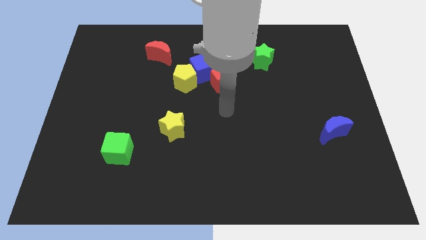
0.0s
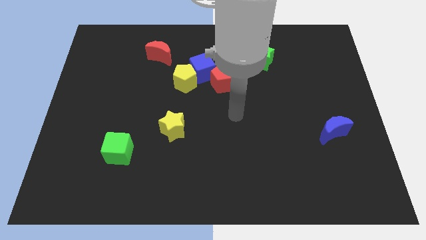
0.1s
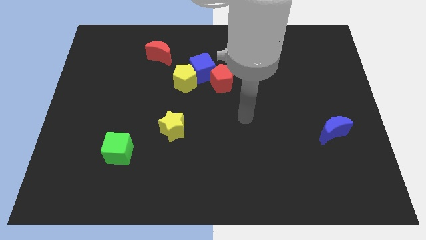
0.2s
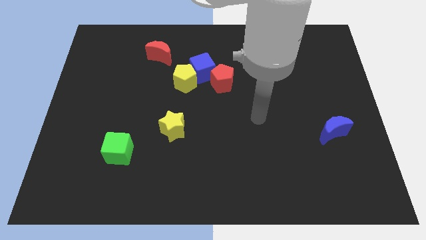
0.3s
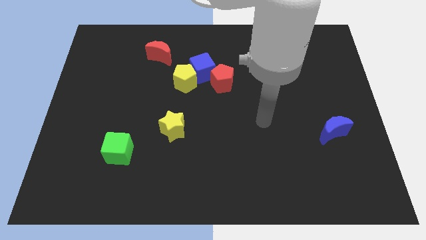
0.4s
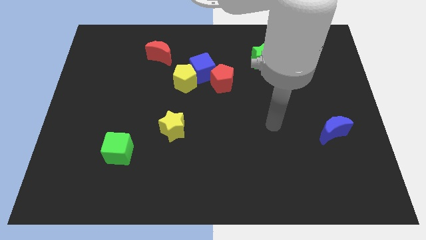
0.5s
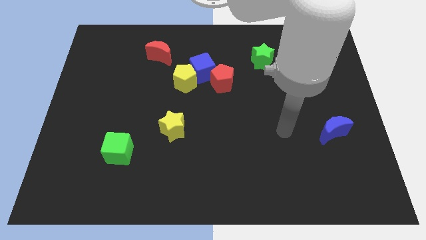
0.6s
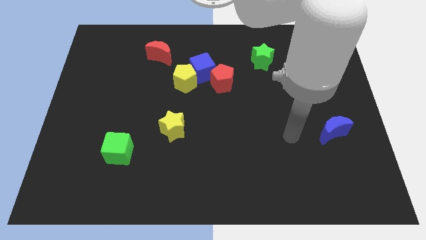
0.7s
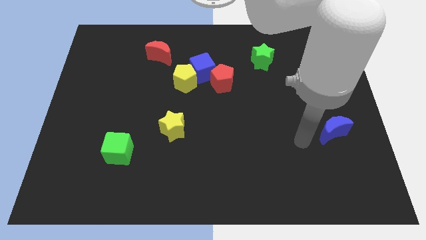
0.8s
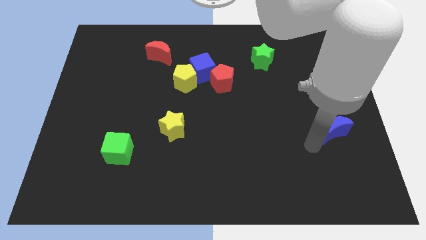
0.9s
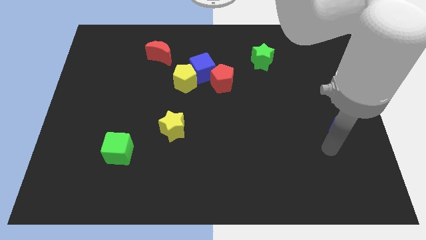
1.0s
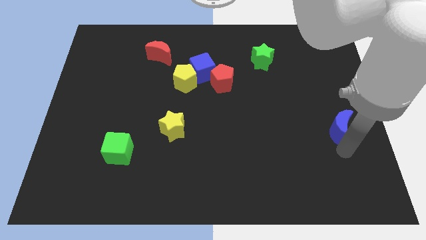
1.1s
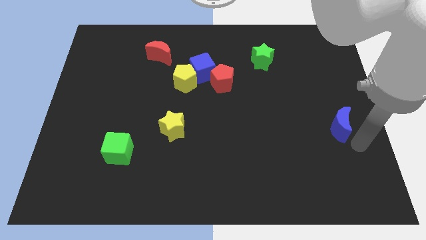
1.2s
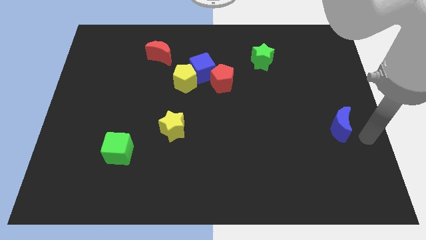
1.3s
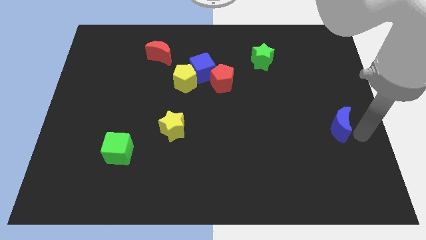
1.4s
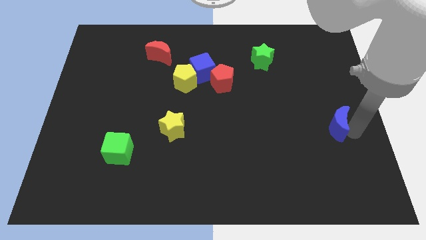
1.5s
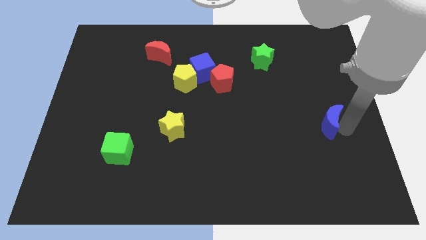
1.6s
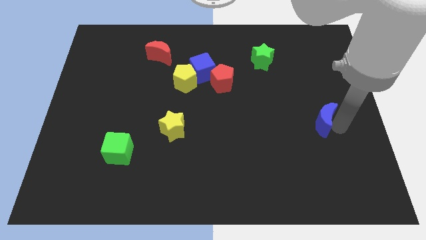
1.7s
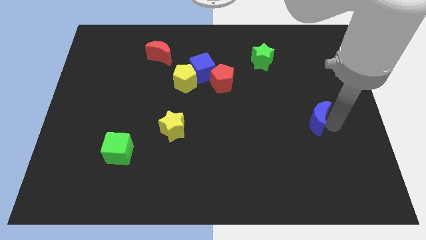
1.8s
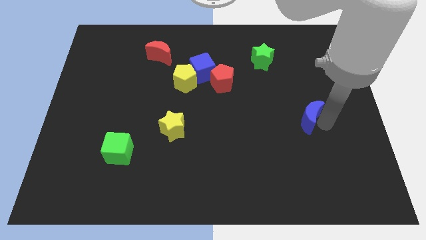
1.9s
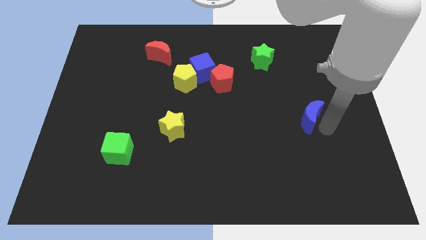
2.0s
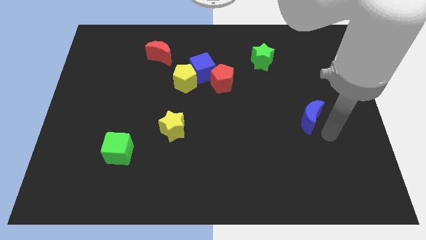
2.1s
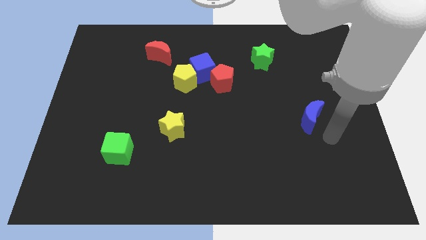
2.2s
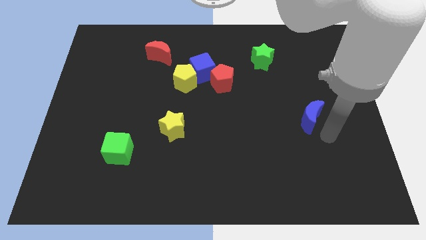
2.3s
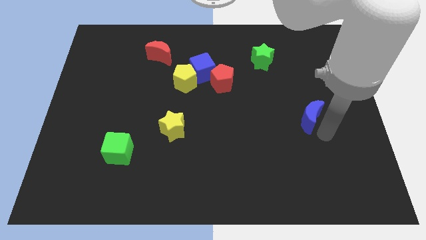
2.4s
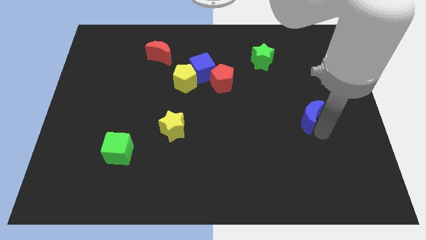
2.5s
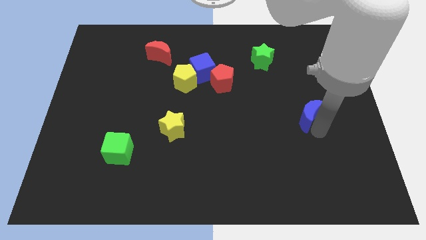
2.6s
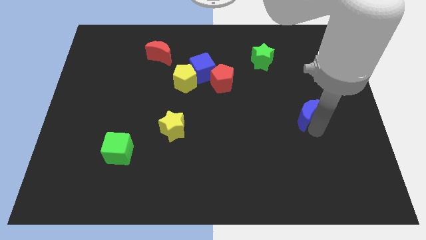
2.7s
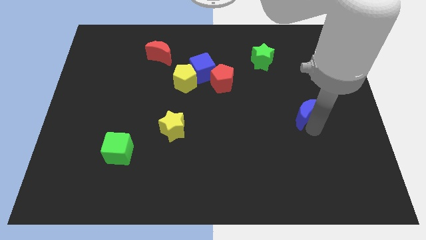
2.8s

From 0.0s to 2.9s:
slide the blue moon up and left a bit

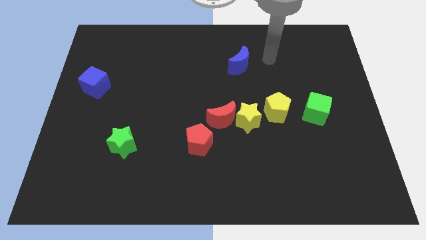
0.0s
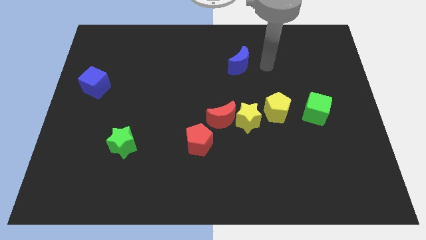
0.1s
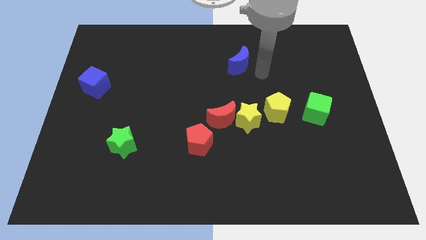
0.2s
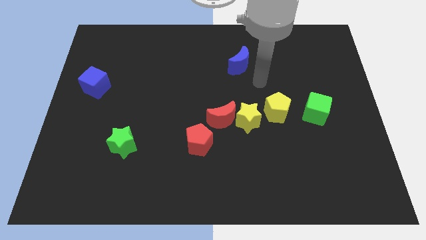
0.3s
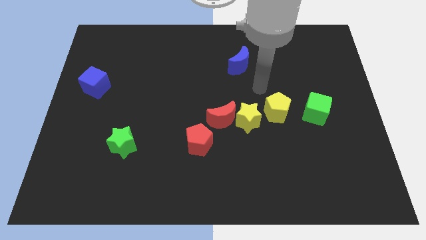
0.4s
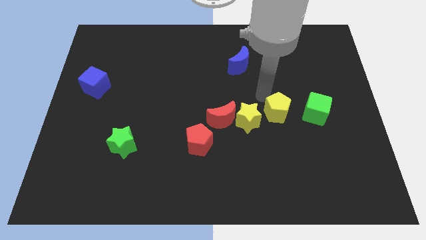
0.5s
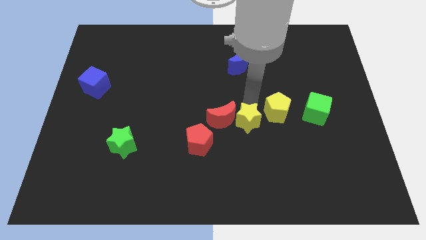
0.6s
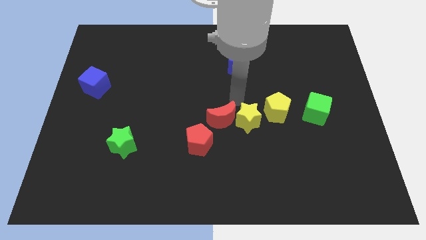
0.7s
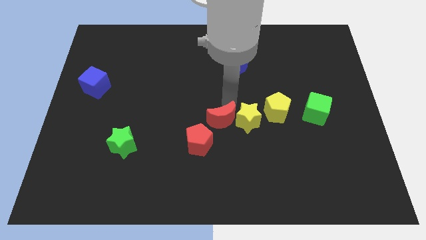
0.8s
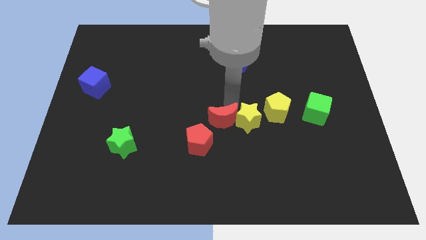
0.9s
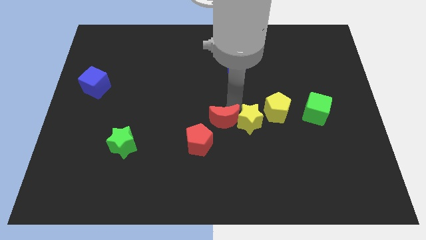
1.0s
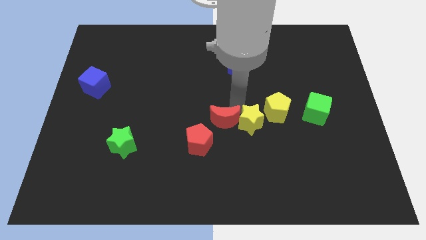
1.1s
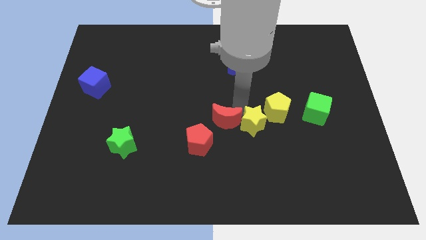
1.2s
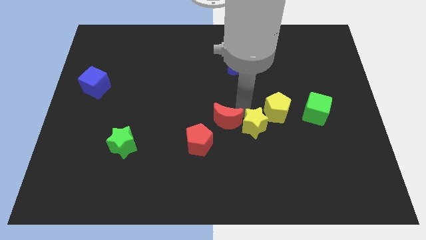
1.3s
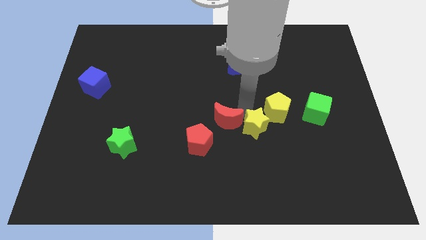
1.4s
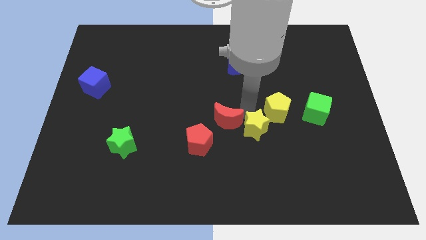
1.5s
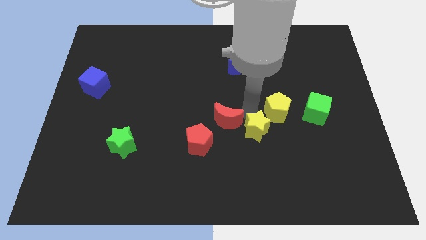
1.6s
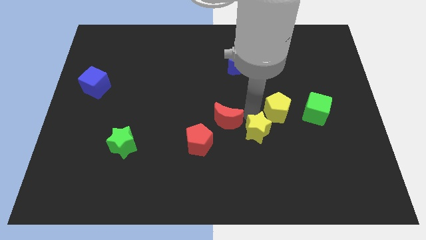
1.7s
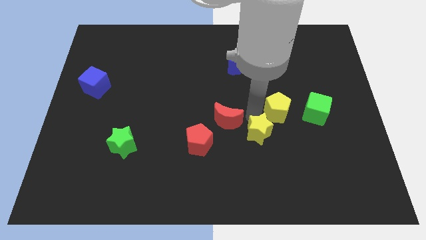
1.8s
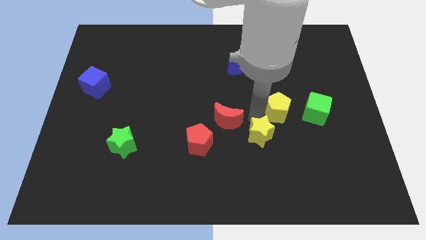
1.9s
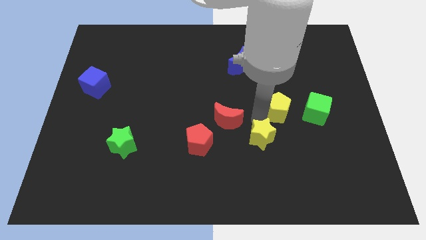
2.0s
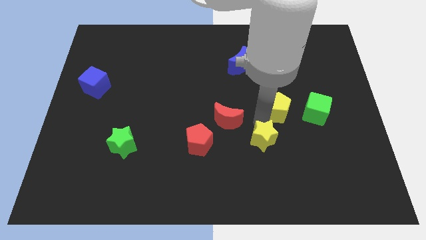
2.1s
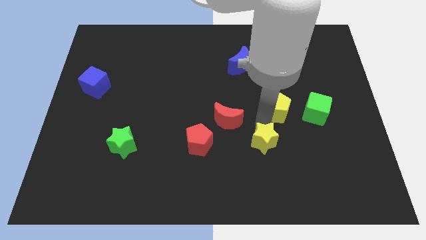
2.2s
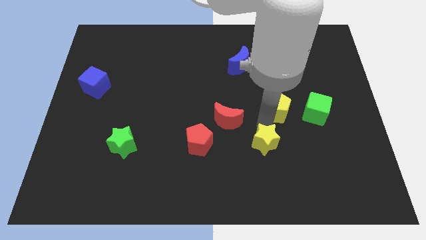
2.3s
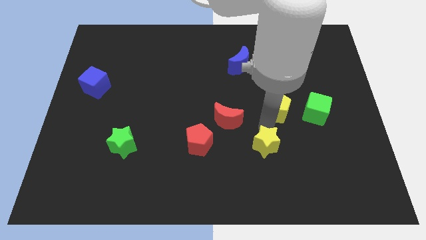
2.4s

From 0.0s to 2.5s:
slightly move the yellow star diagonally down and to the right

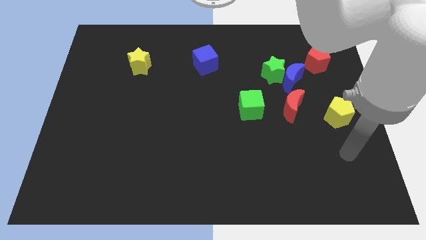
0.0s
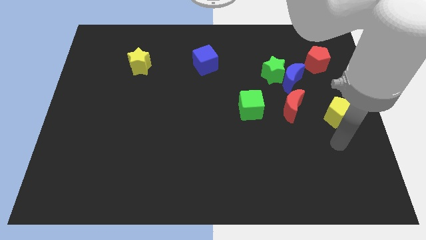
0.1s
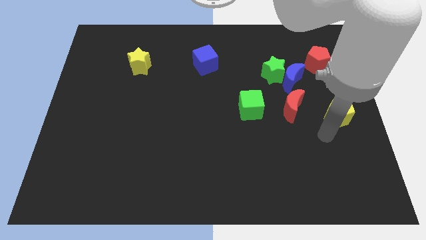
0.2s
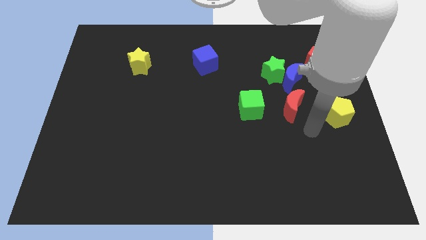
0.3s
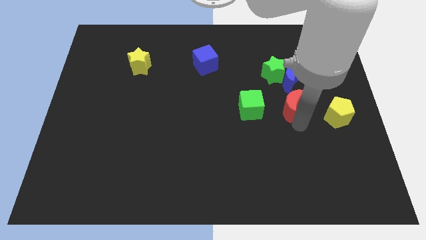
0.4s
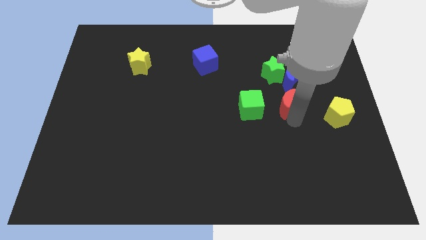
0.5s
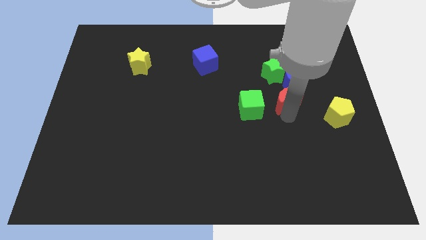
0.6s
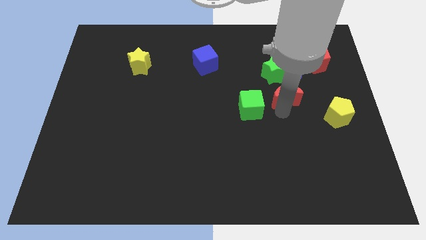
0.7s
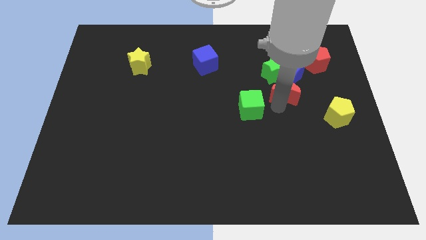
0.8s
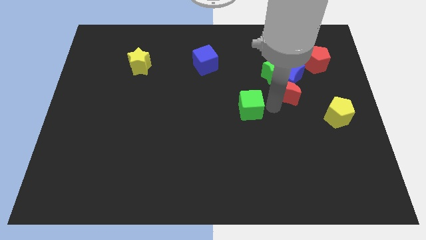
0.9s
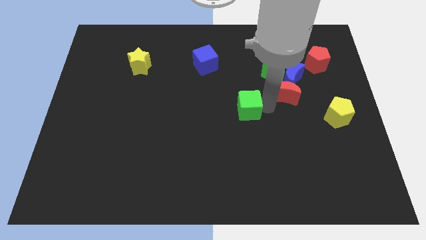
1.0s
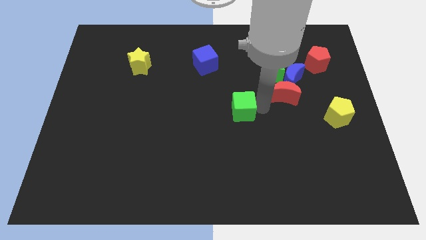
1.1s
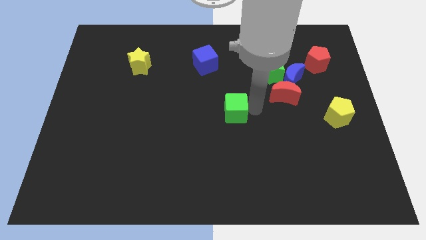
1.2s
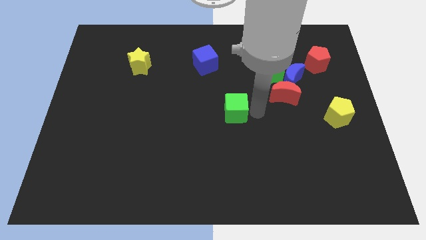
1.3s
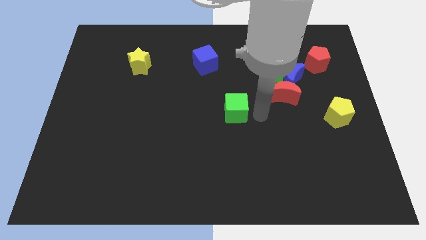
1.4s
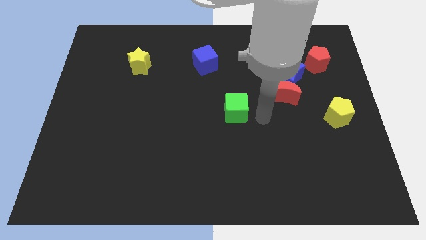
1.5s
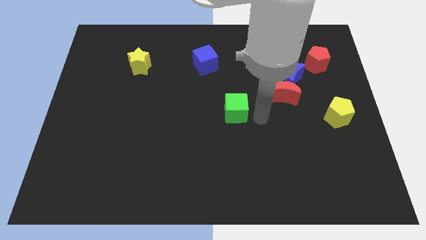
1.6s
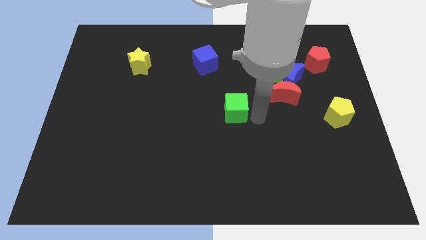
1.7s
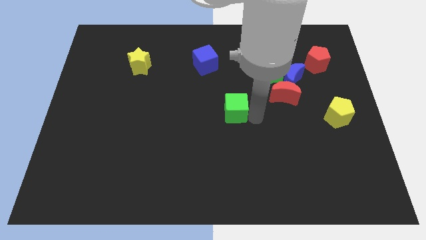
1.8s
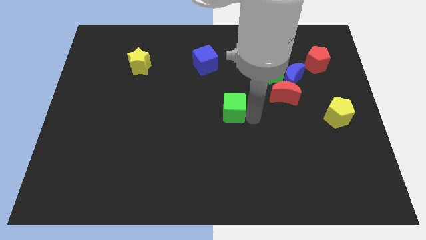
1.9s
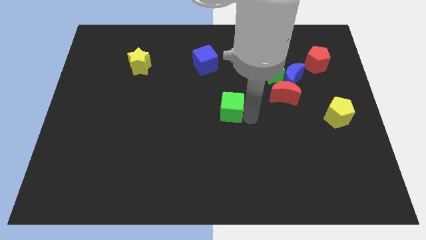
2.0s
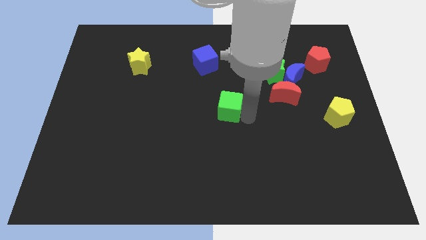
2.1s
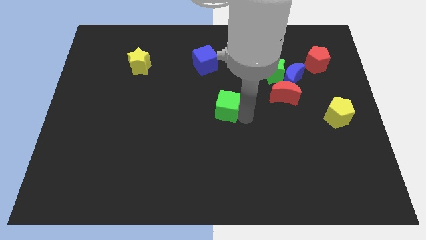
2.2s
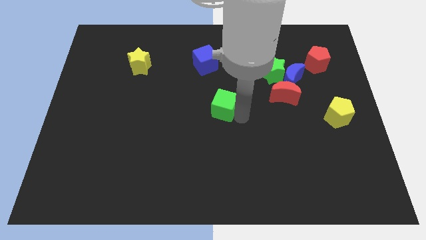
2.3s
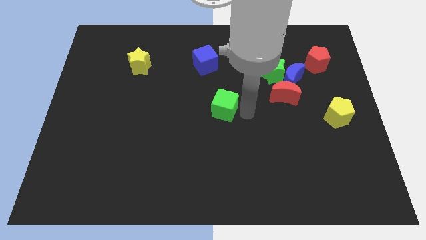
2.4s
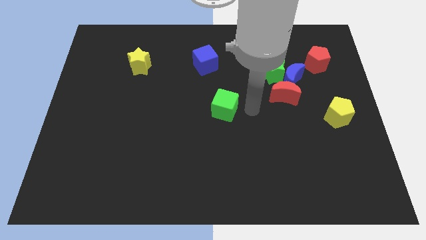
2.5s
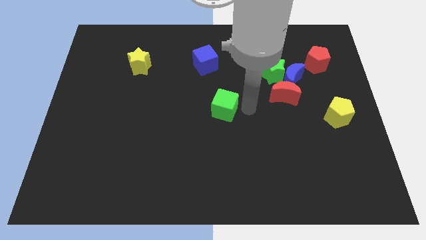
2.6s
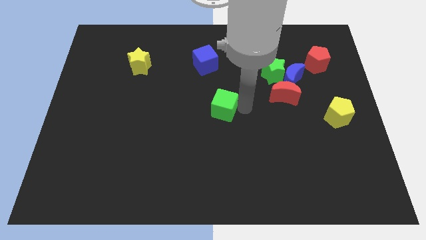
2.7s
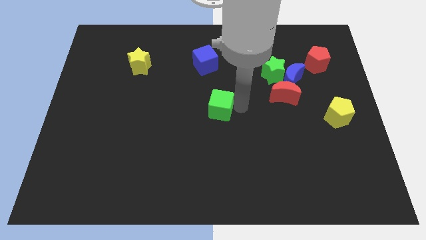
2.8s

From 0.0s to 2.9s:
slightly slide the green cube to the left
